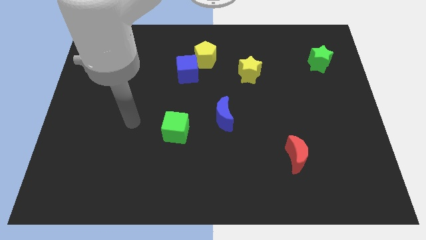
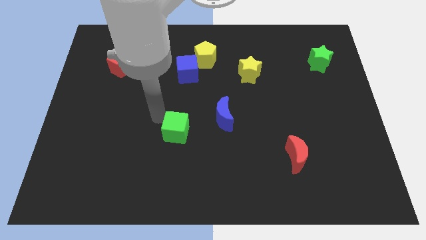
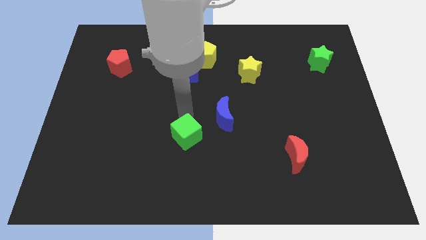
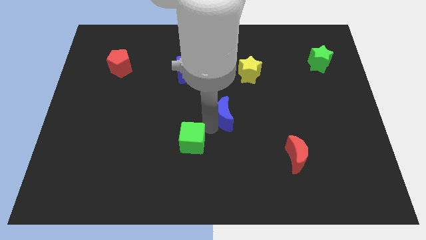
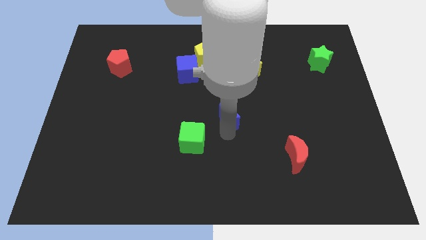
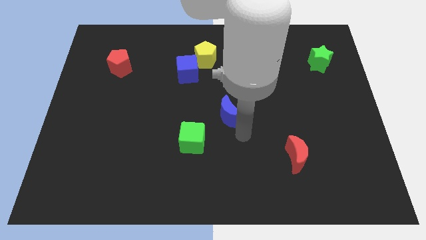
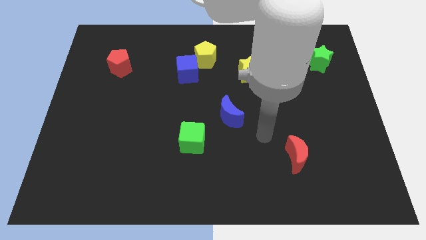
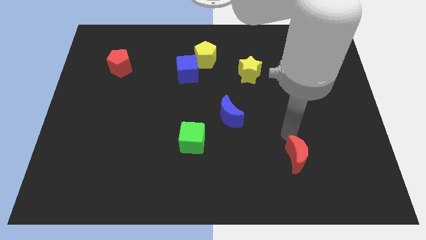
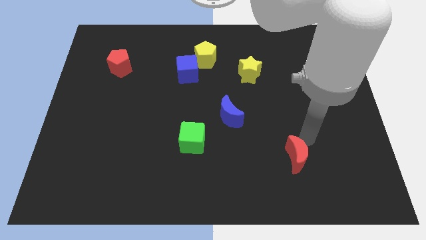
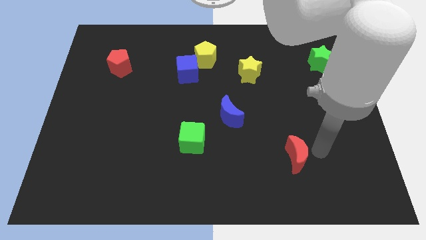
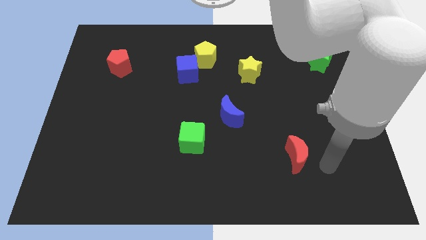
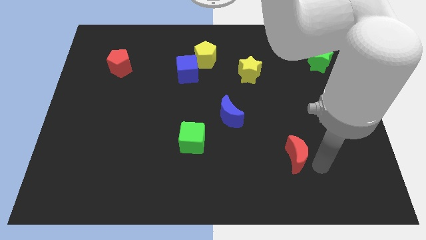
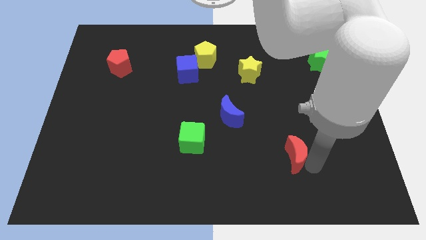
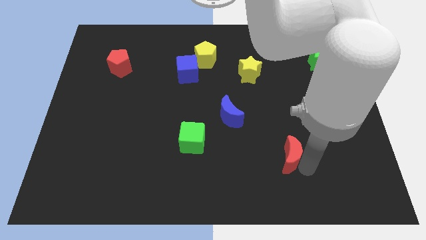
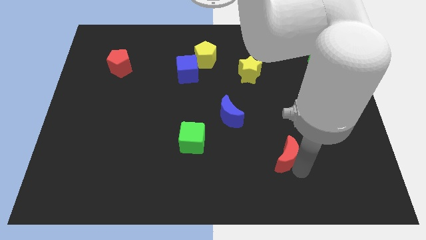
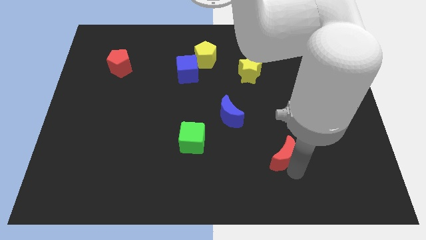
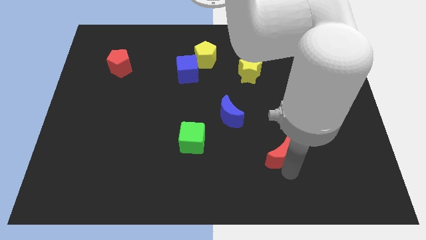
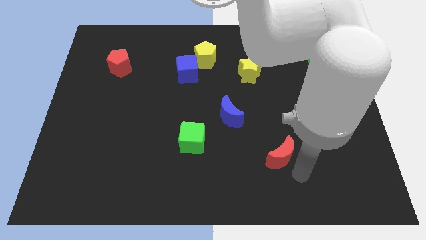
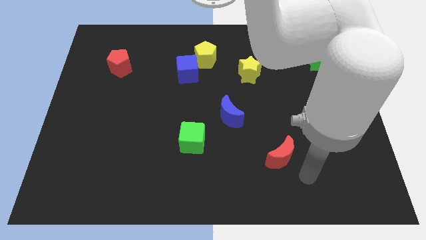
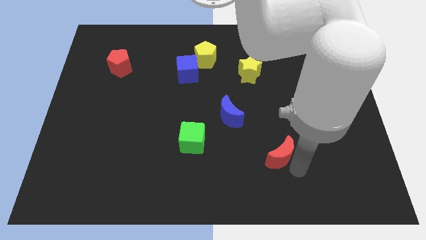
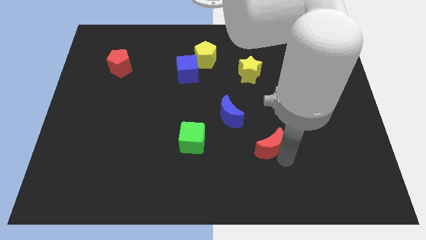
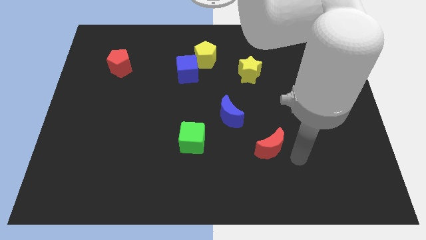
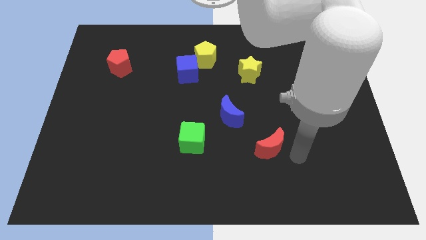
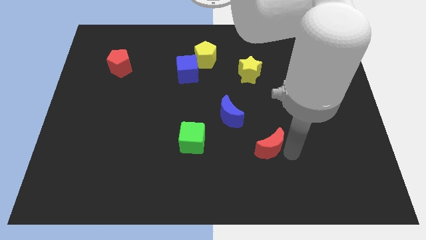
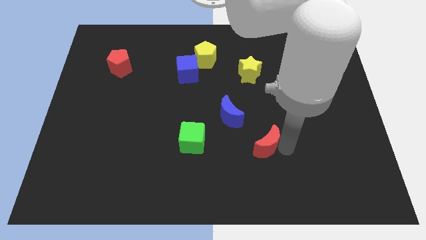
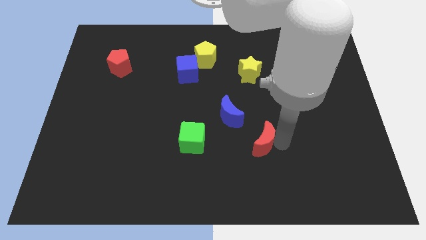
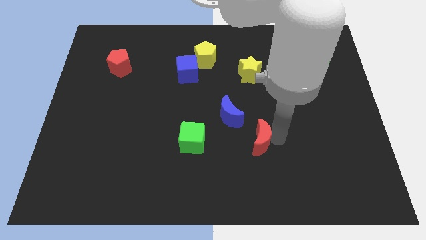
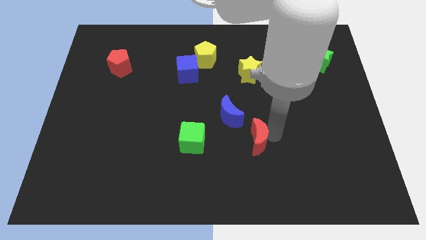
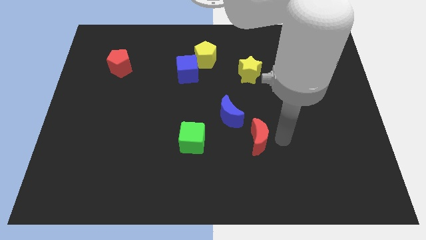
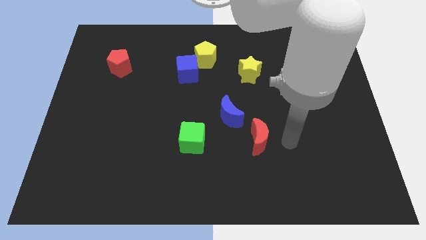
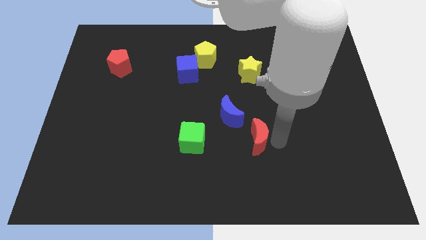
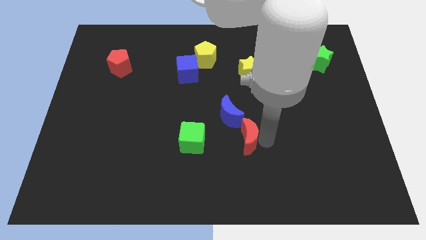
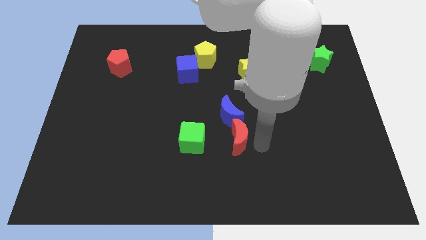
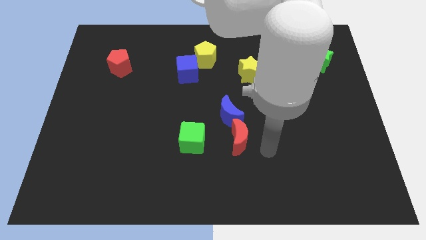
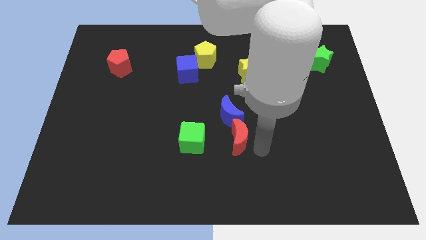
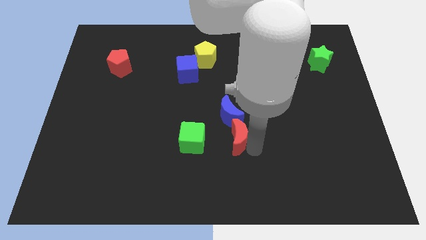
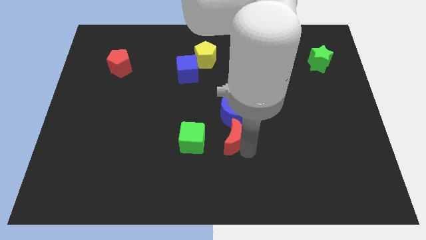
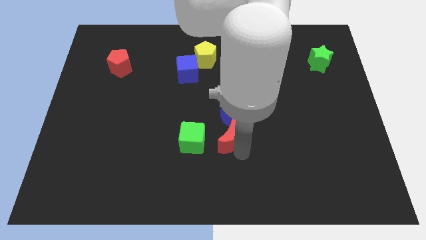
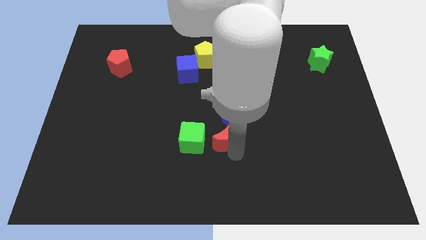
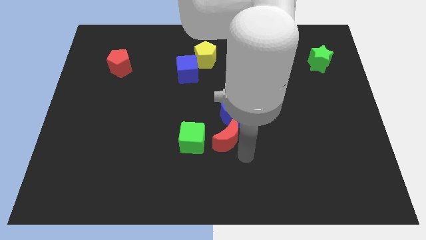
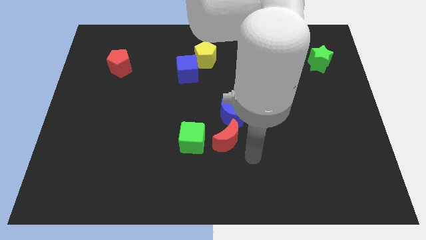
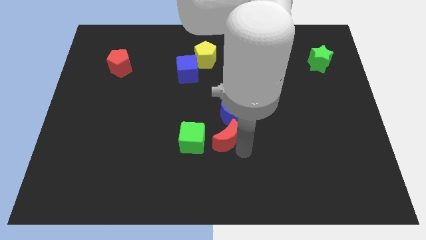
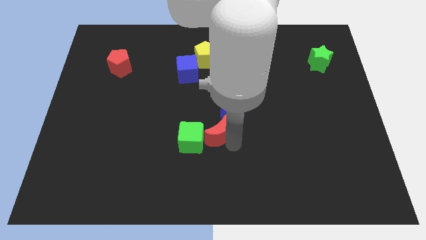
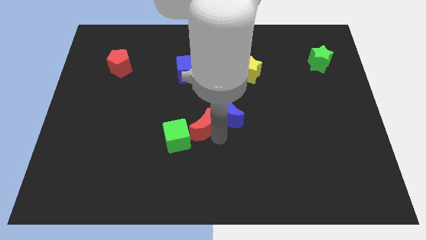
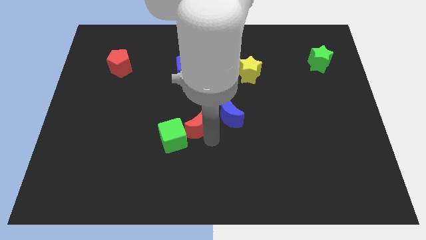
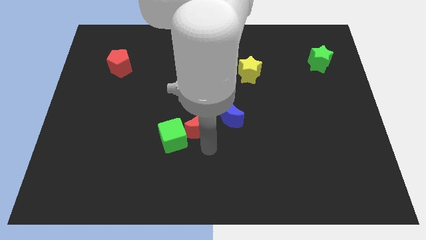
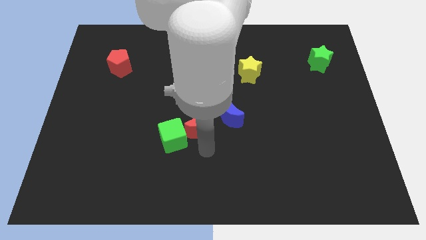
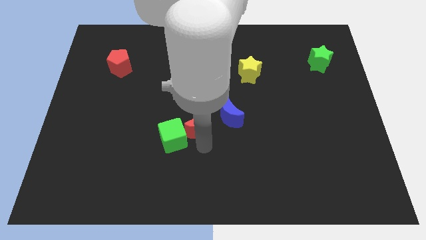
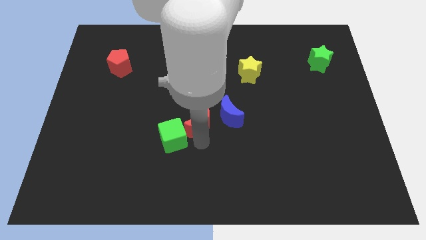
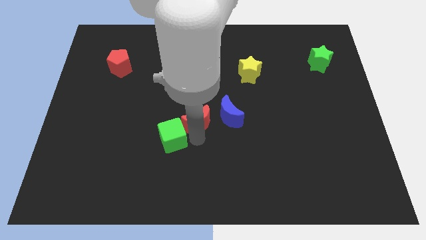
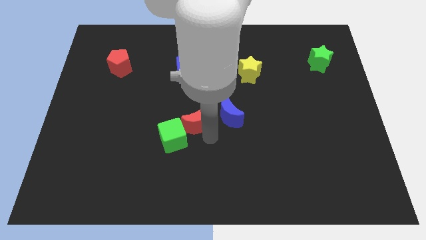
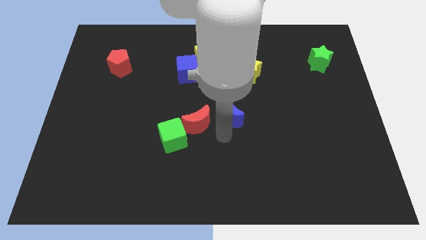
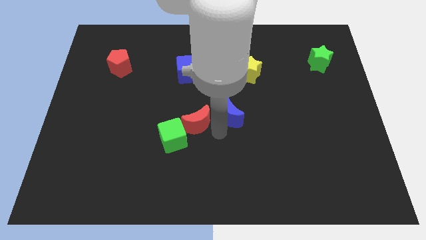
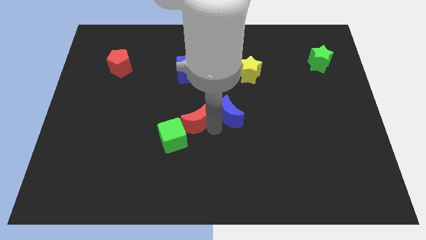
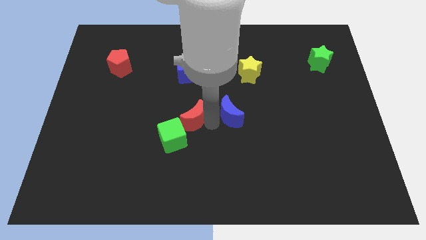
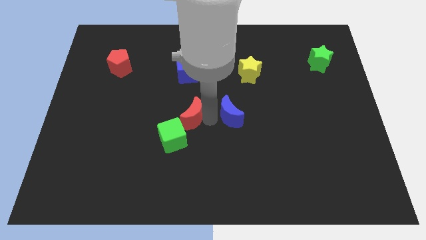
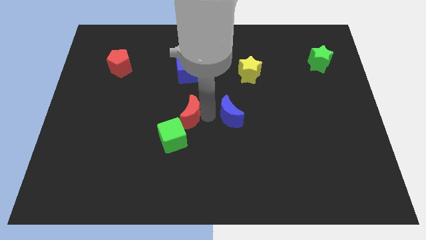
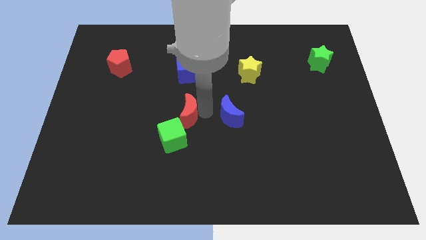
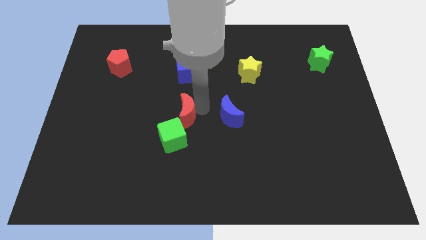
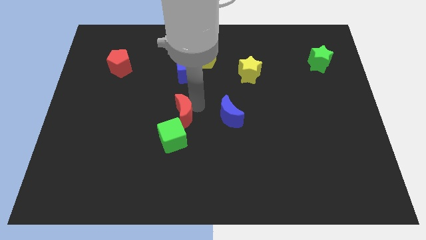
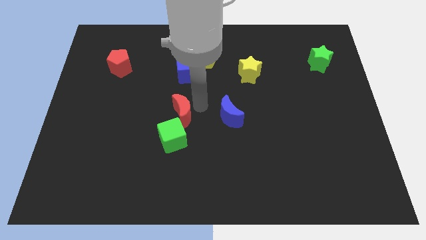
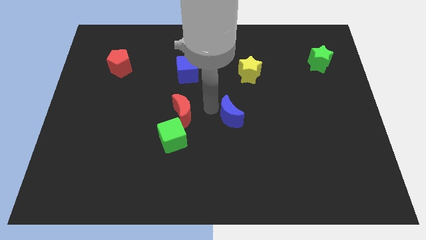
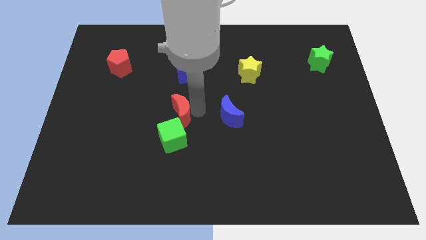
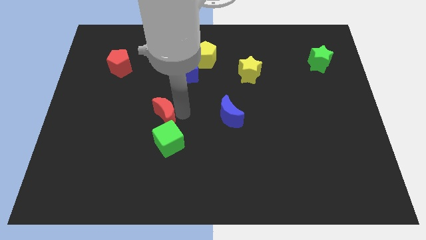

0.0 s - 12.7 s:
put the red moon diagonally up and to the left of the green cube
